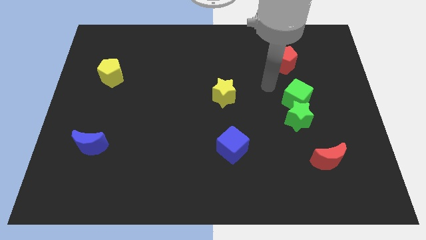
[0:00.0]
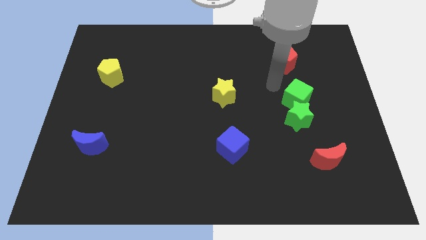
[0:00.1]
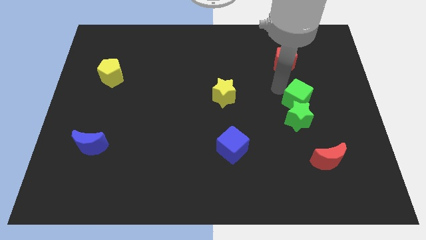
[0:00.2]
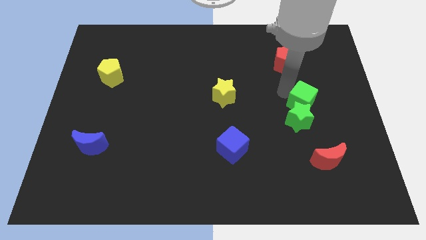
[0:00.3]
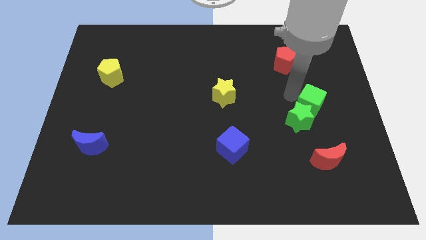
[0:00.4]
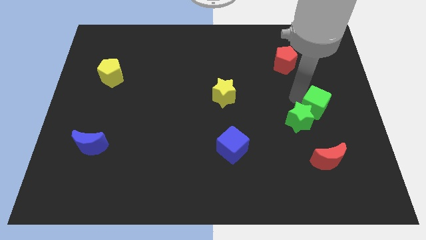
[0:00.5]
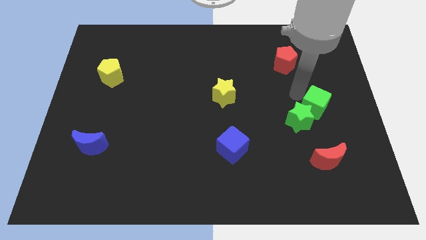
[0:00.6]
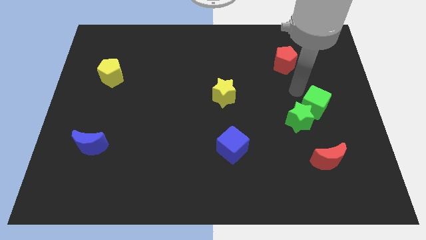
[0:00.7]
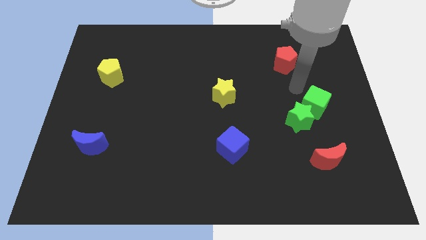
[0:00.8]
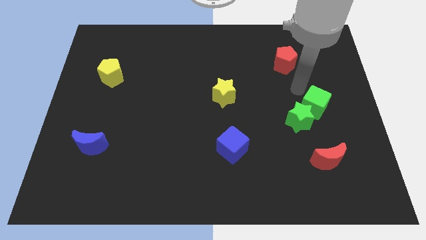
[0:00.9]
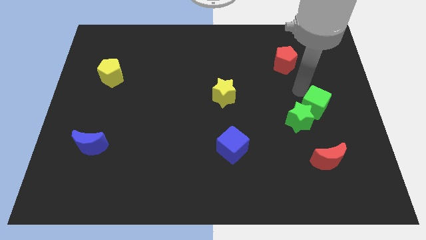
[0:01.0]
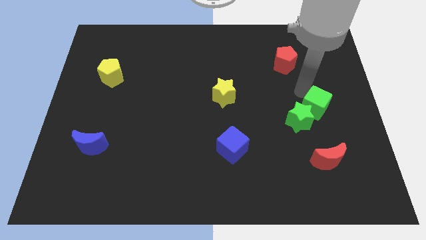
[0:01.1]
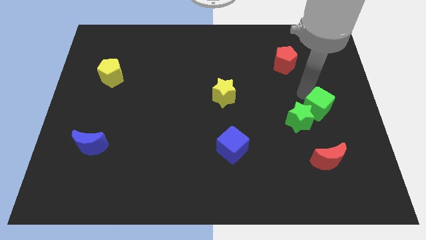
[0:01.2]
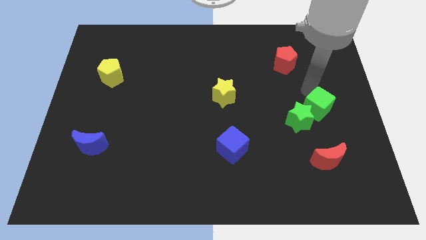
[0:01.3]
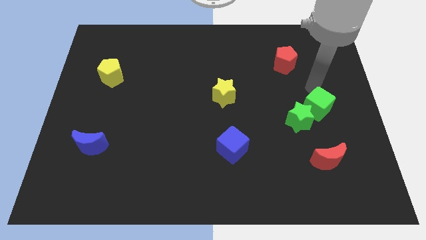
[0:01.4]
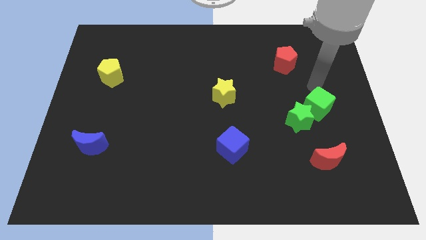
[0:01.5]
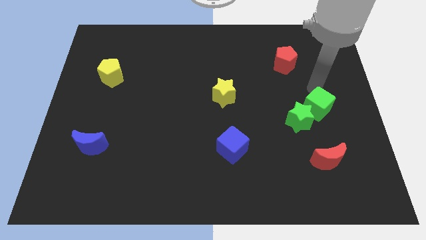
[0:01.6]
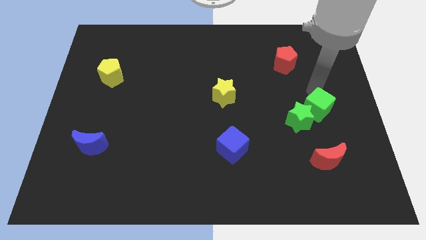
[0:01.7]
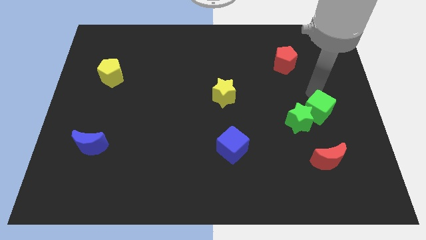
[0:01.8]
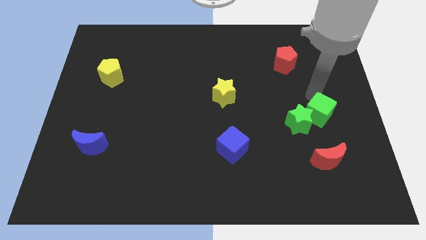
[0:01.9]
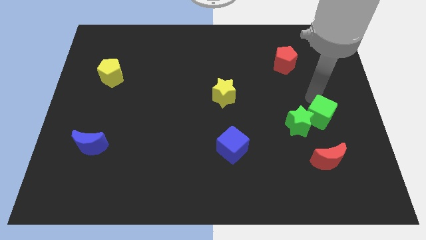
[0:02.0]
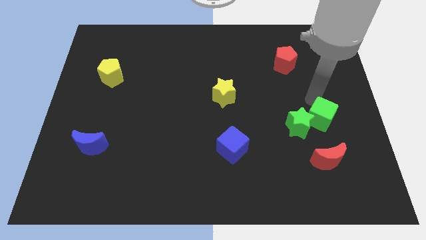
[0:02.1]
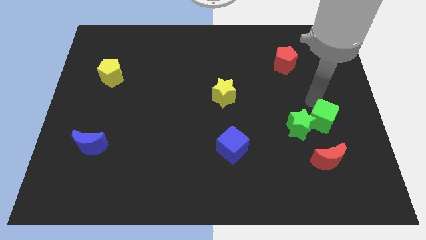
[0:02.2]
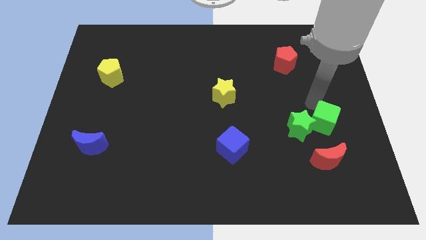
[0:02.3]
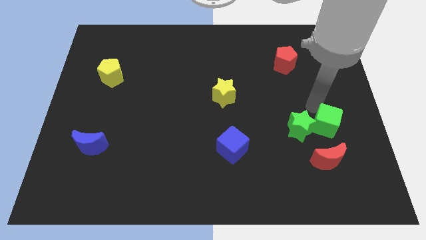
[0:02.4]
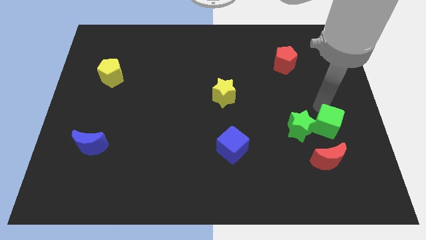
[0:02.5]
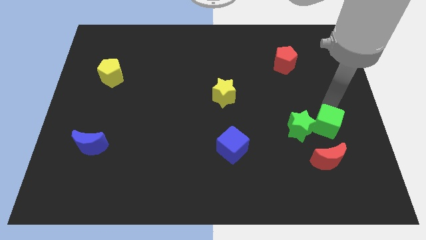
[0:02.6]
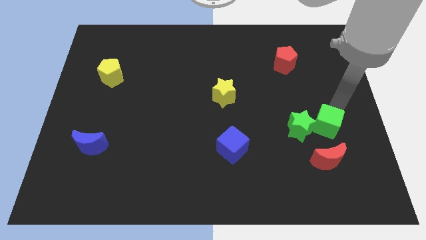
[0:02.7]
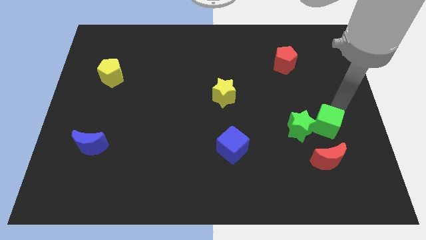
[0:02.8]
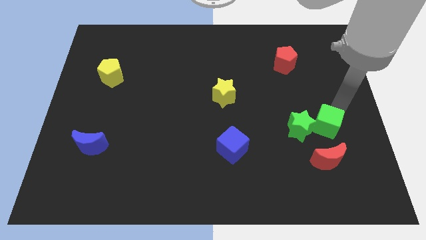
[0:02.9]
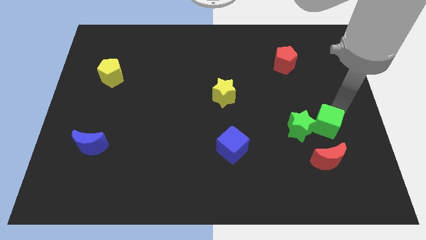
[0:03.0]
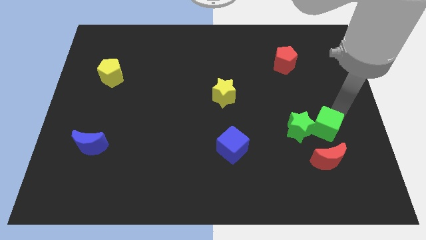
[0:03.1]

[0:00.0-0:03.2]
move the green cube a little downwards

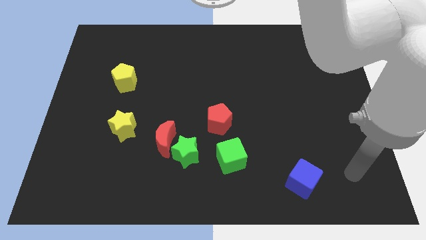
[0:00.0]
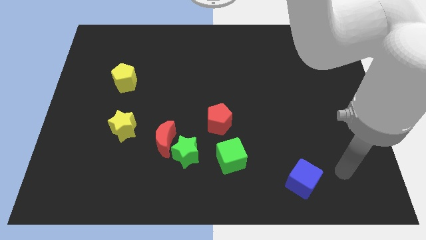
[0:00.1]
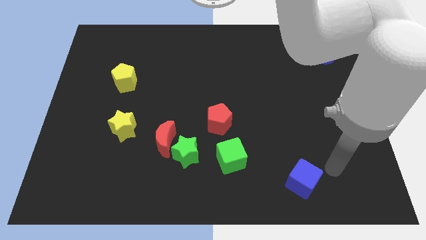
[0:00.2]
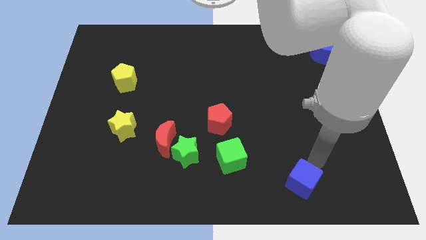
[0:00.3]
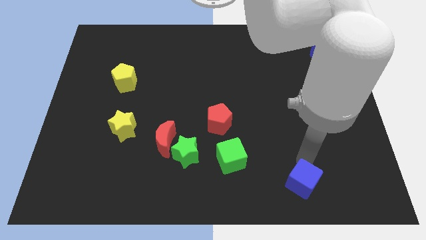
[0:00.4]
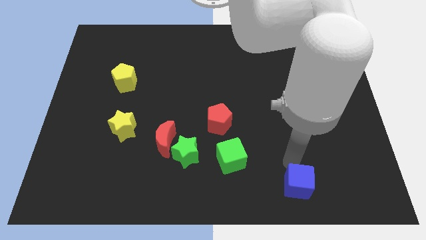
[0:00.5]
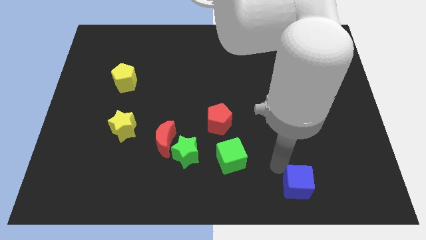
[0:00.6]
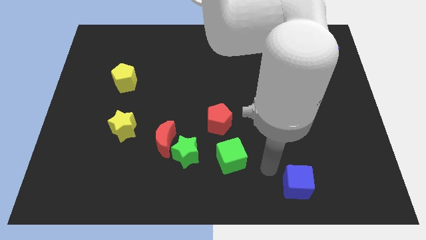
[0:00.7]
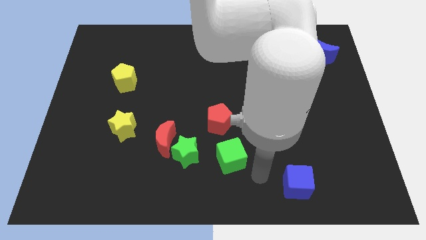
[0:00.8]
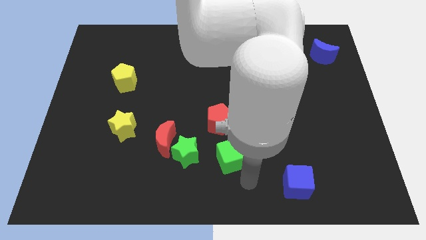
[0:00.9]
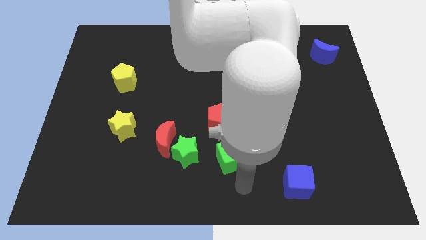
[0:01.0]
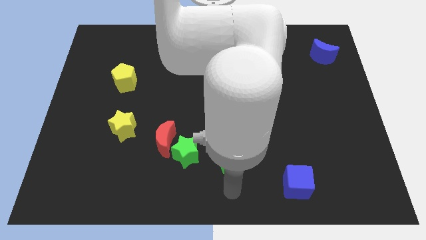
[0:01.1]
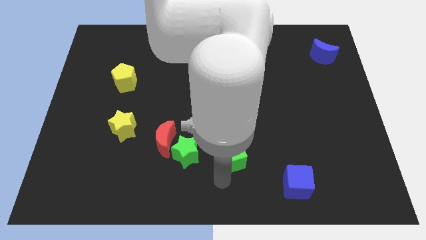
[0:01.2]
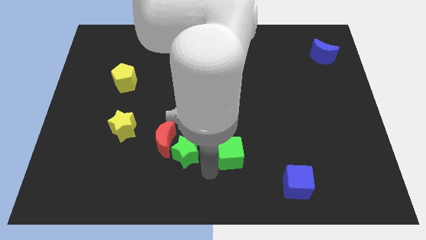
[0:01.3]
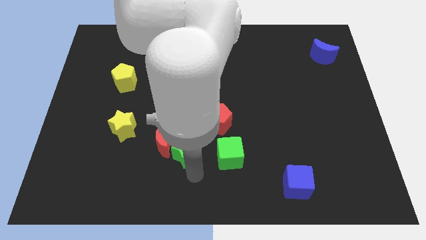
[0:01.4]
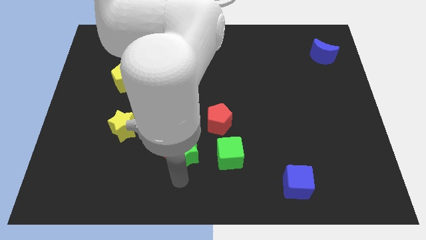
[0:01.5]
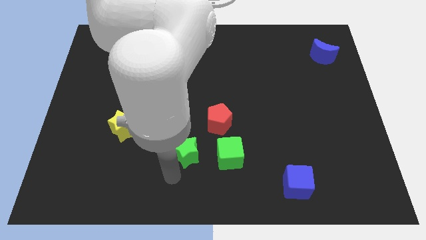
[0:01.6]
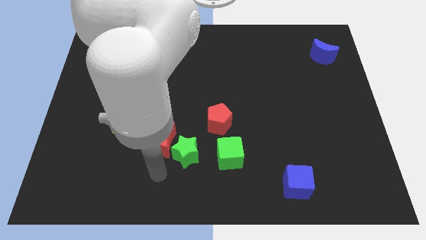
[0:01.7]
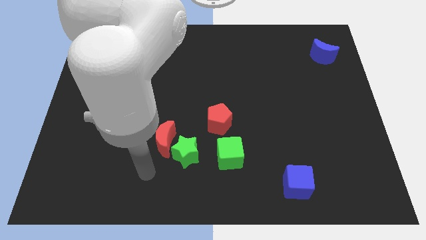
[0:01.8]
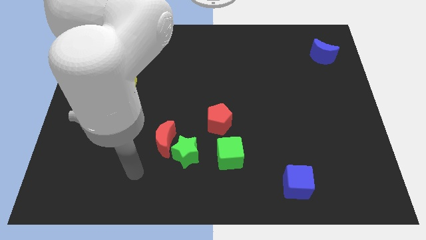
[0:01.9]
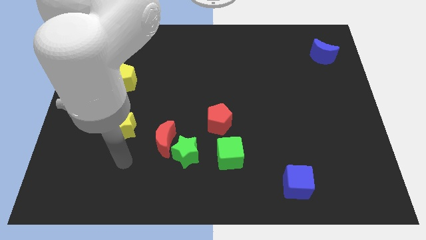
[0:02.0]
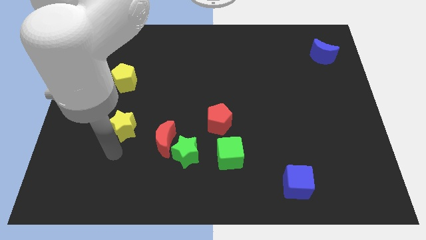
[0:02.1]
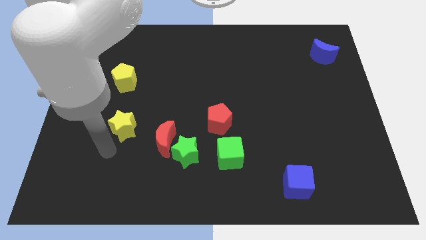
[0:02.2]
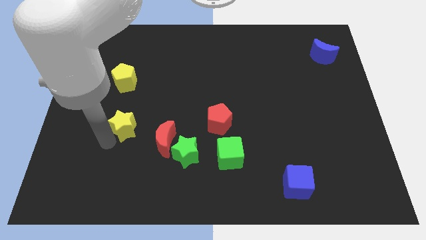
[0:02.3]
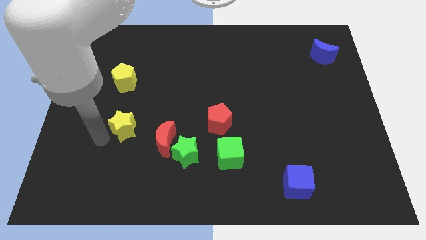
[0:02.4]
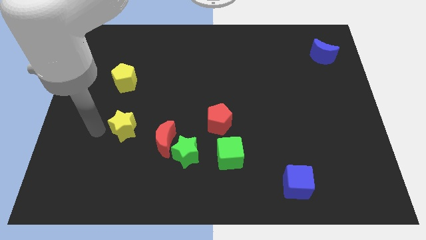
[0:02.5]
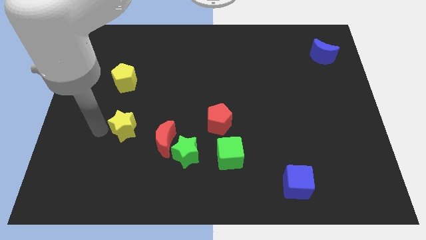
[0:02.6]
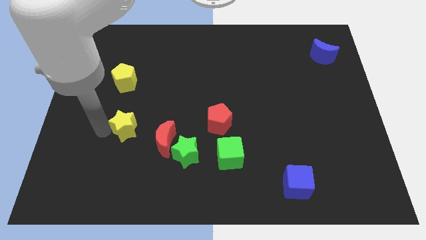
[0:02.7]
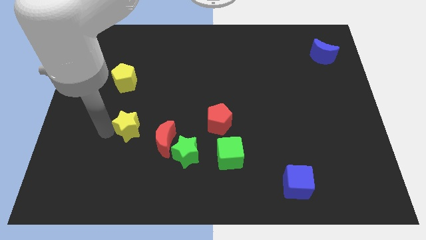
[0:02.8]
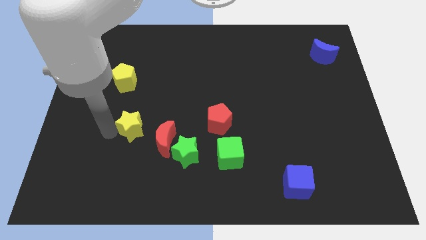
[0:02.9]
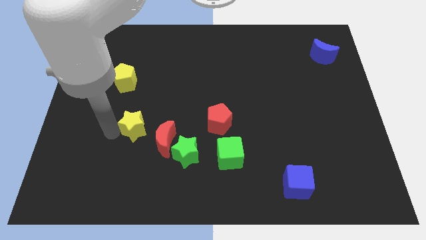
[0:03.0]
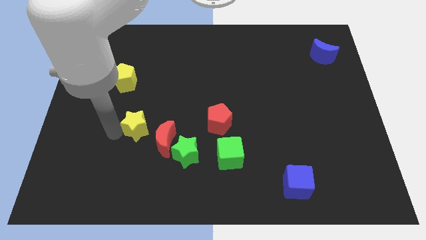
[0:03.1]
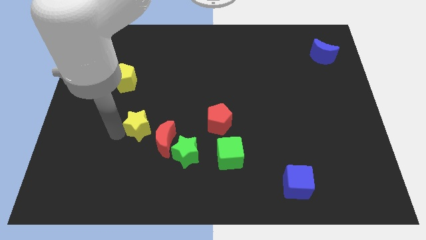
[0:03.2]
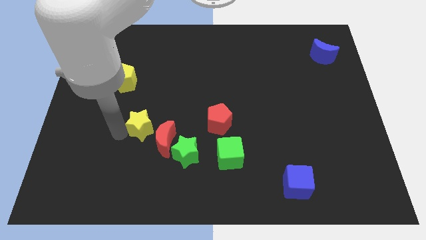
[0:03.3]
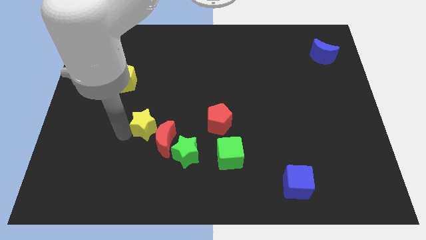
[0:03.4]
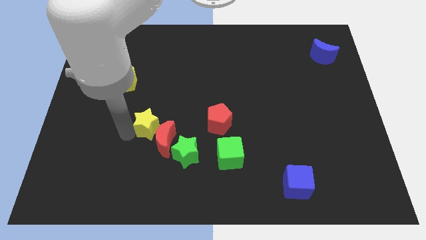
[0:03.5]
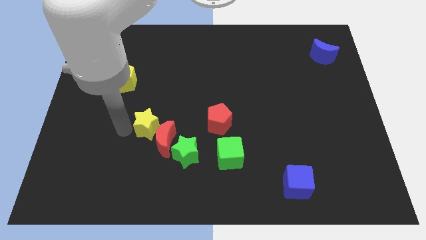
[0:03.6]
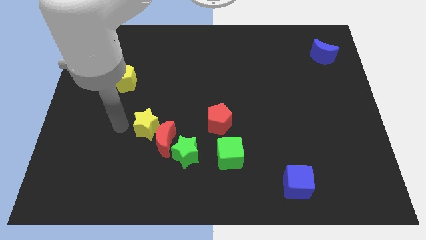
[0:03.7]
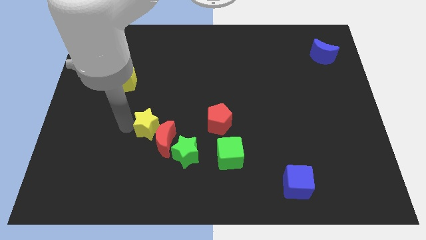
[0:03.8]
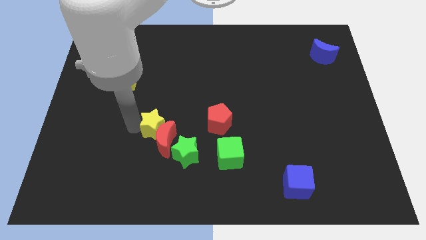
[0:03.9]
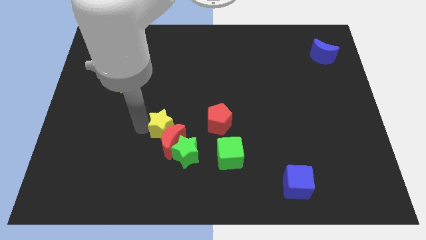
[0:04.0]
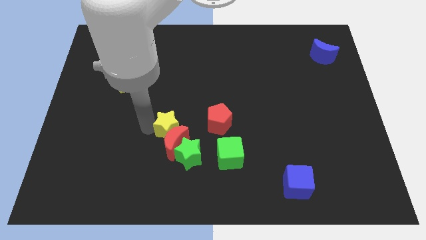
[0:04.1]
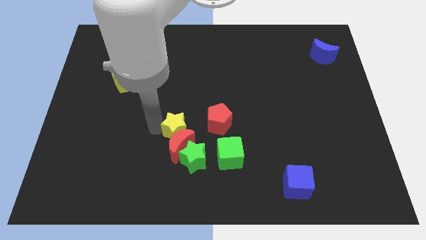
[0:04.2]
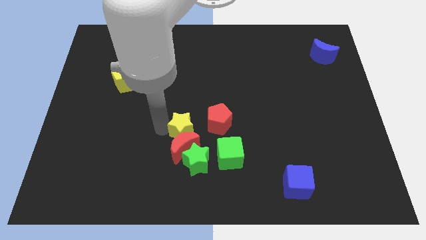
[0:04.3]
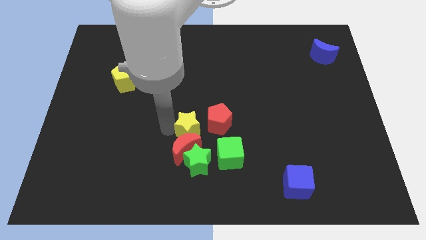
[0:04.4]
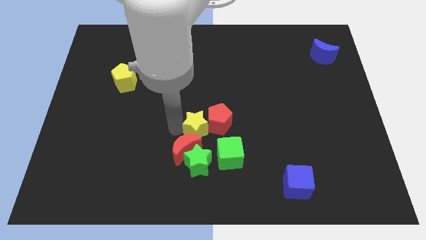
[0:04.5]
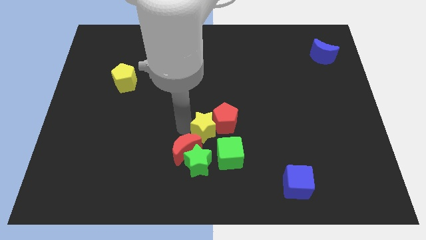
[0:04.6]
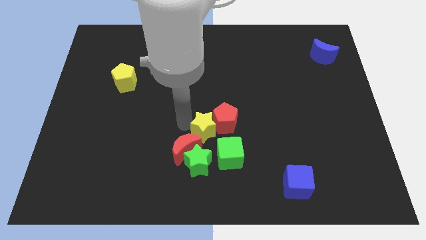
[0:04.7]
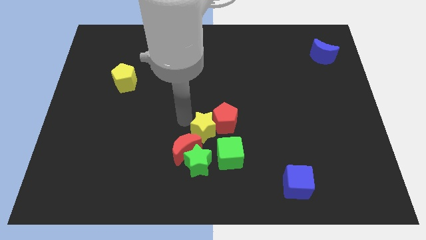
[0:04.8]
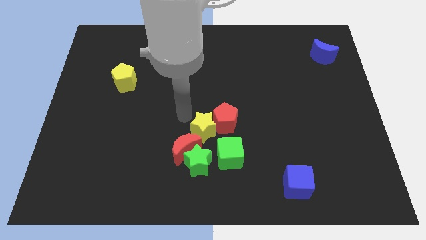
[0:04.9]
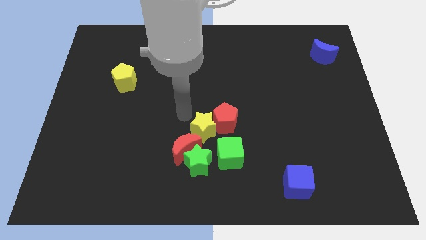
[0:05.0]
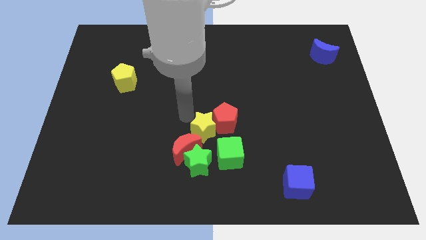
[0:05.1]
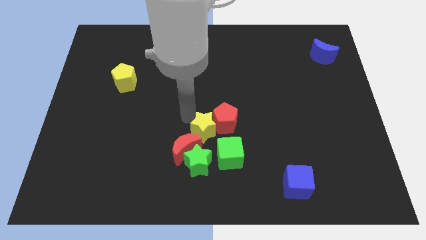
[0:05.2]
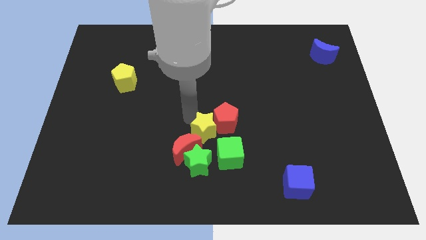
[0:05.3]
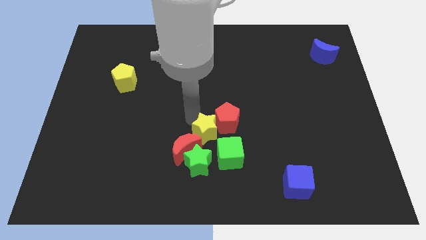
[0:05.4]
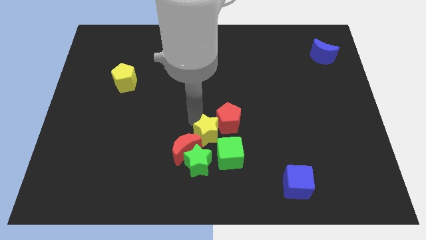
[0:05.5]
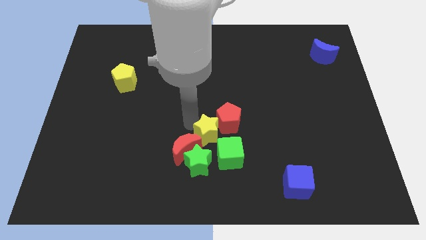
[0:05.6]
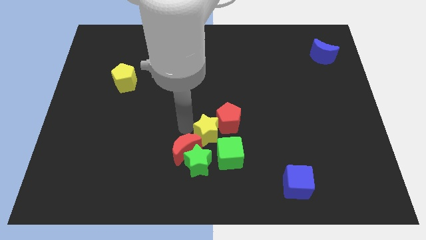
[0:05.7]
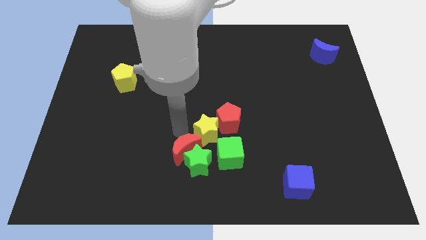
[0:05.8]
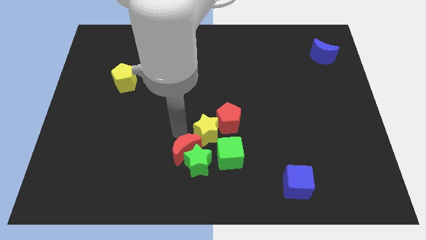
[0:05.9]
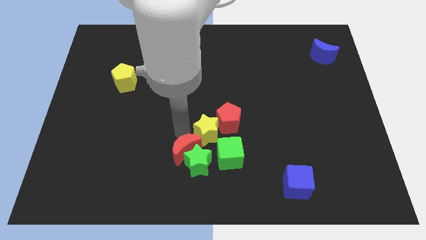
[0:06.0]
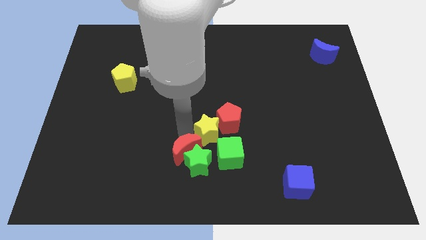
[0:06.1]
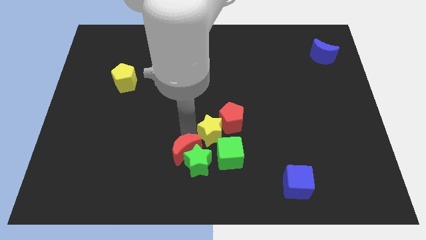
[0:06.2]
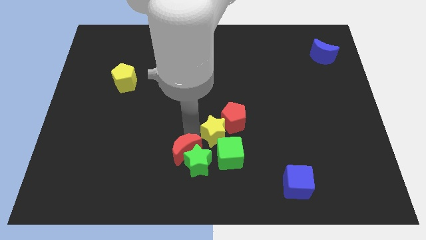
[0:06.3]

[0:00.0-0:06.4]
push the yellow star to the right
